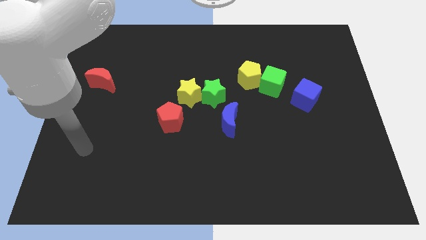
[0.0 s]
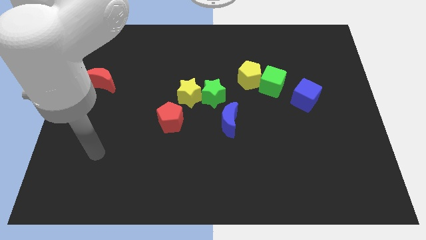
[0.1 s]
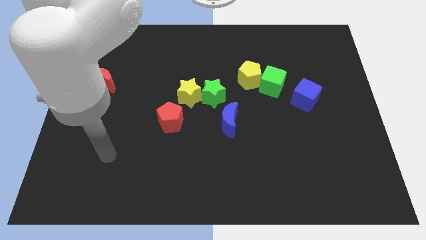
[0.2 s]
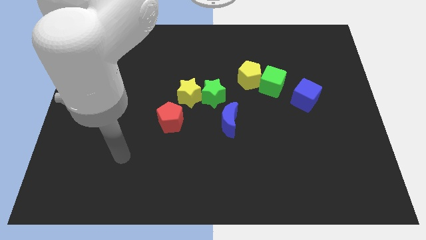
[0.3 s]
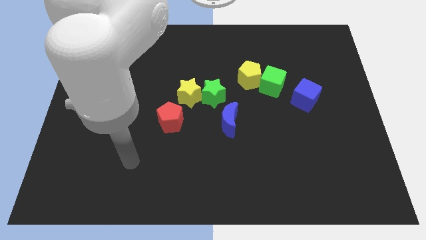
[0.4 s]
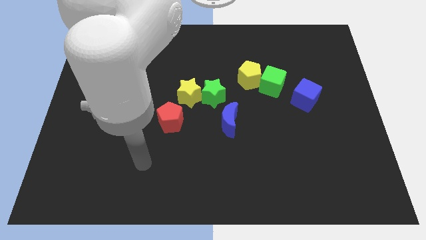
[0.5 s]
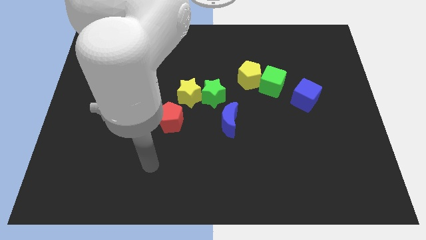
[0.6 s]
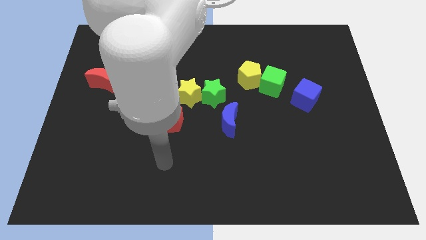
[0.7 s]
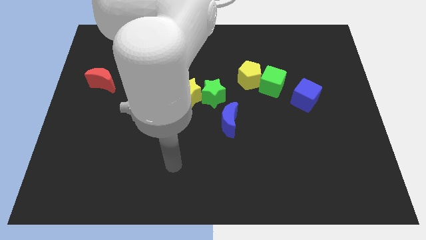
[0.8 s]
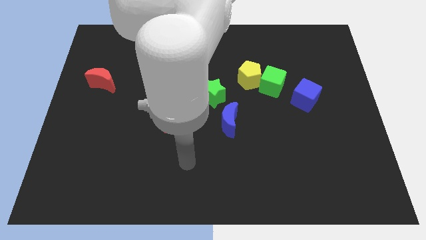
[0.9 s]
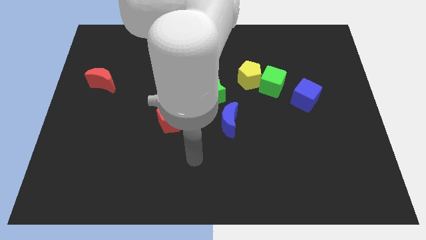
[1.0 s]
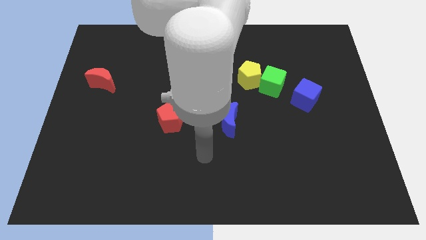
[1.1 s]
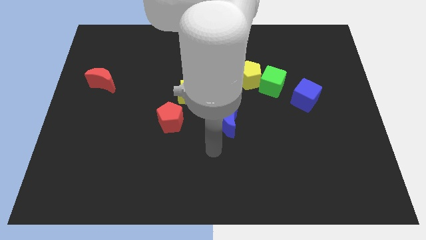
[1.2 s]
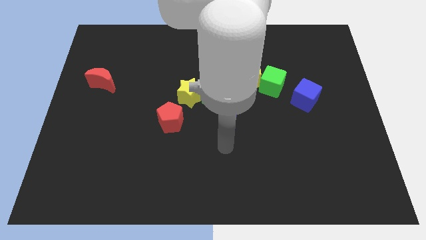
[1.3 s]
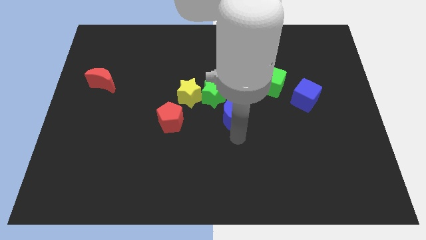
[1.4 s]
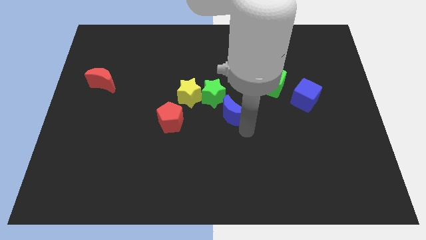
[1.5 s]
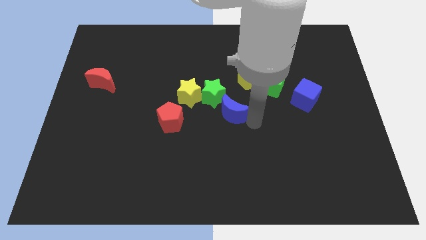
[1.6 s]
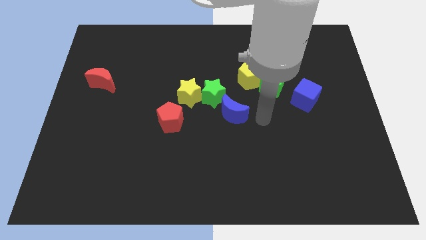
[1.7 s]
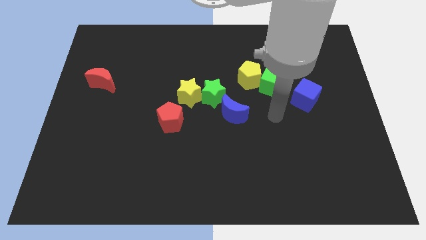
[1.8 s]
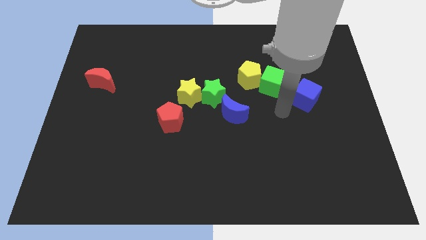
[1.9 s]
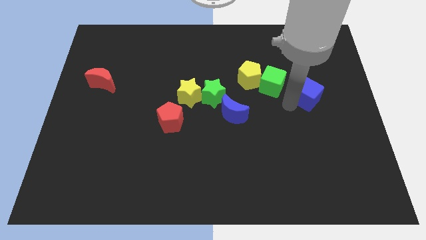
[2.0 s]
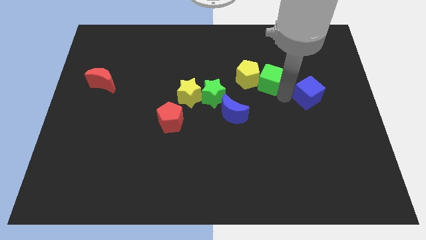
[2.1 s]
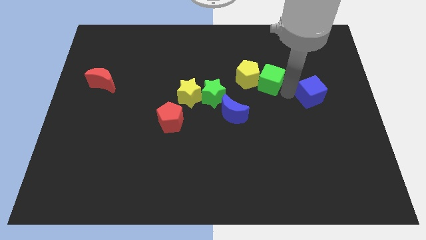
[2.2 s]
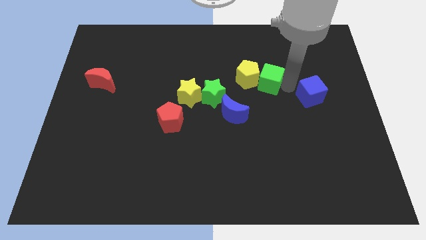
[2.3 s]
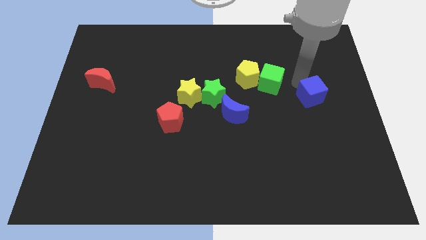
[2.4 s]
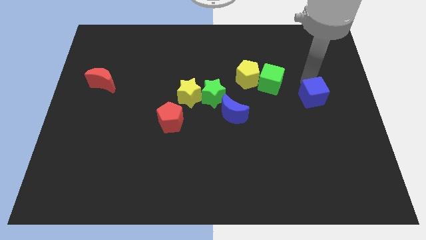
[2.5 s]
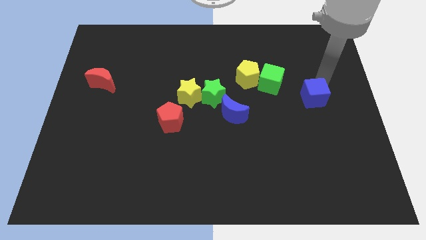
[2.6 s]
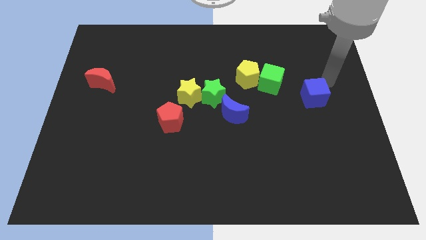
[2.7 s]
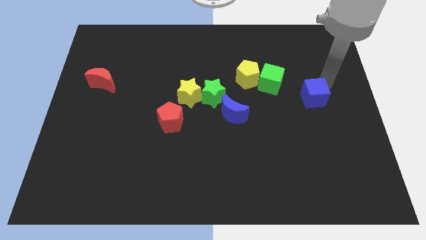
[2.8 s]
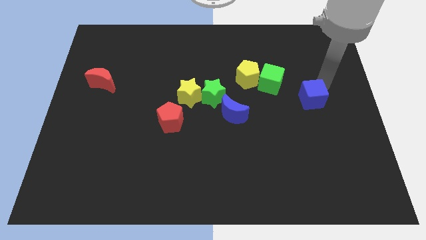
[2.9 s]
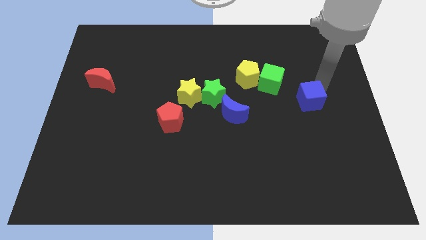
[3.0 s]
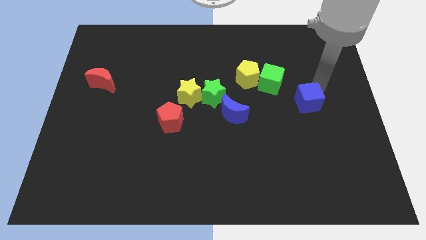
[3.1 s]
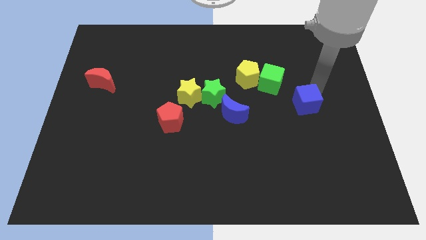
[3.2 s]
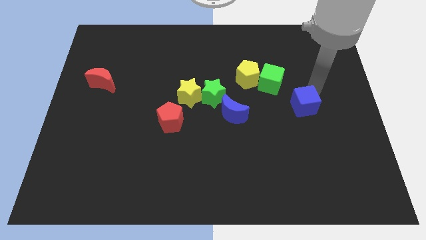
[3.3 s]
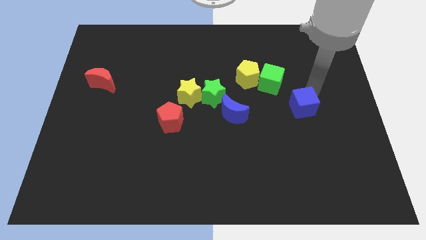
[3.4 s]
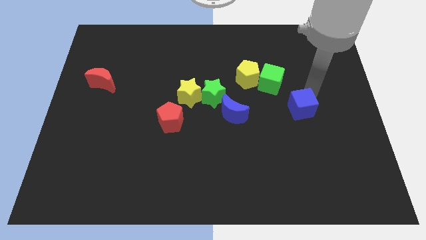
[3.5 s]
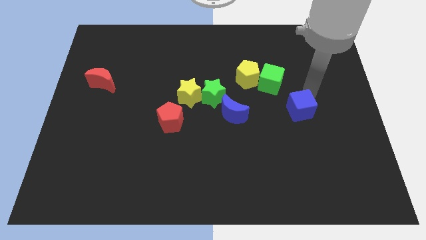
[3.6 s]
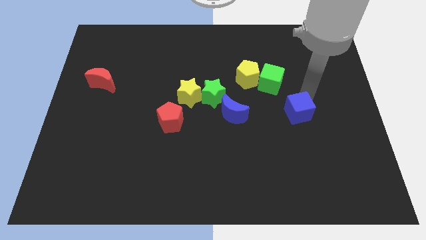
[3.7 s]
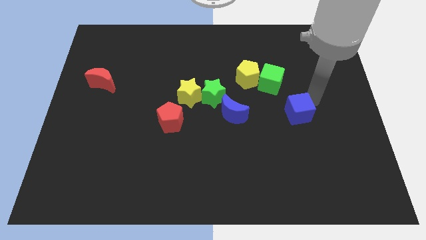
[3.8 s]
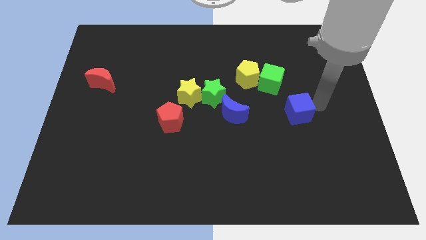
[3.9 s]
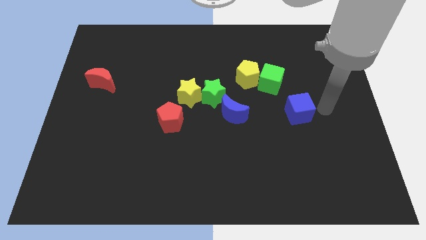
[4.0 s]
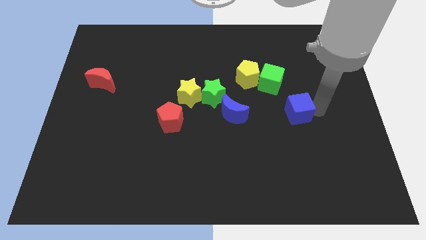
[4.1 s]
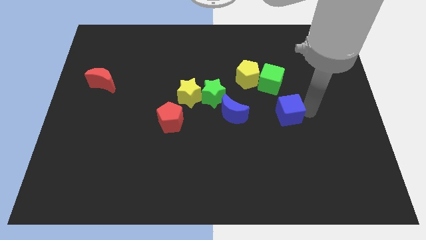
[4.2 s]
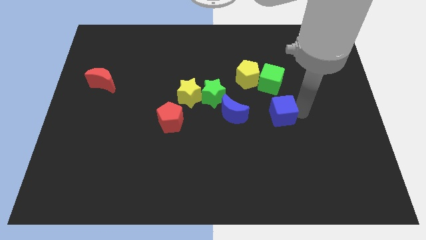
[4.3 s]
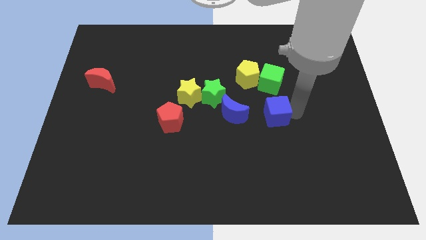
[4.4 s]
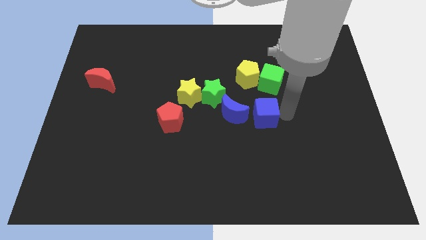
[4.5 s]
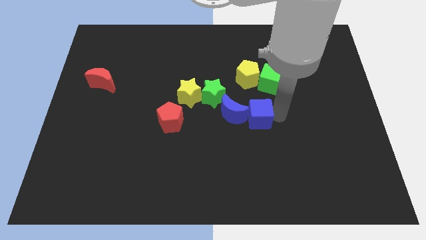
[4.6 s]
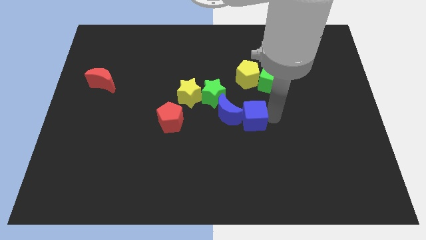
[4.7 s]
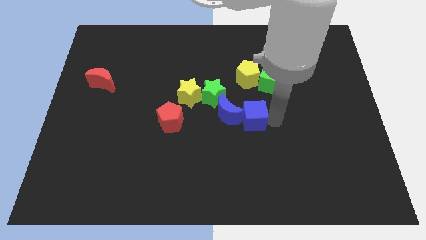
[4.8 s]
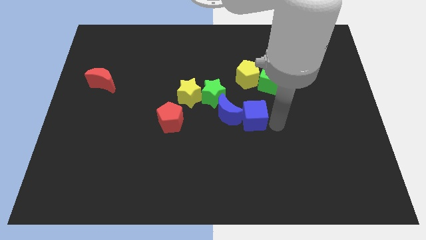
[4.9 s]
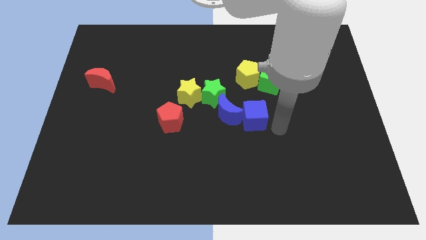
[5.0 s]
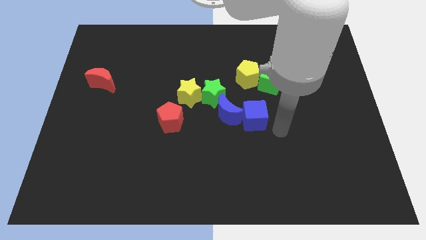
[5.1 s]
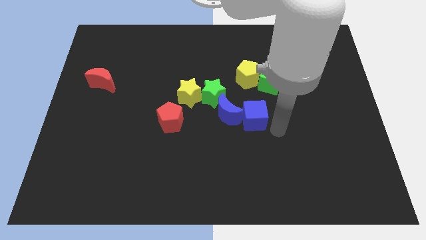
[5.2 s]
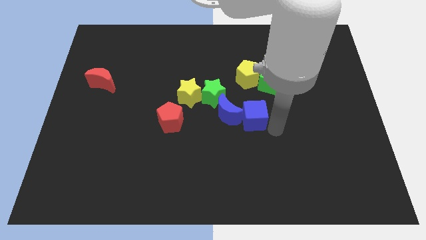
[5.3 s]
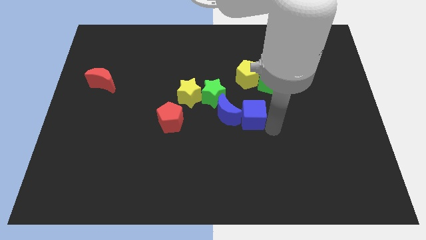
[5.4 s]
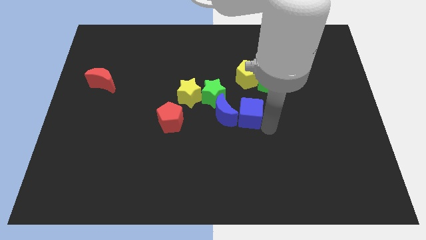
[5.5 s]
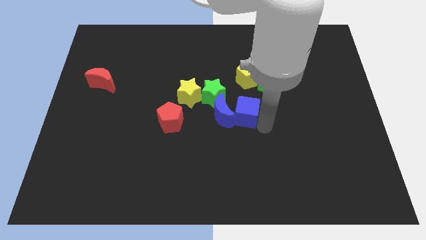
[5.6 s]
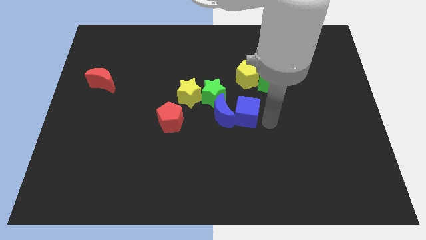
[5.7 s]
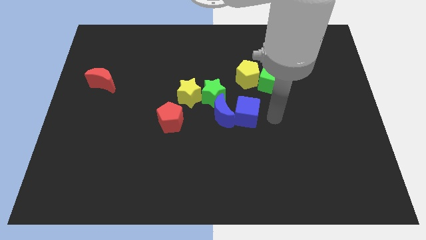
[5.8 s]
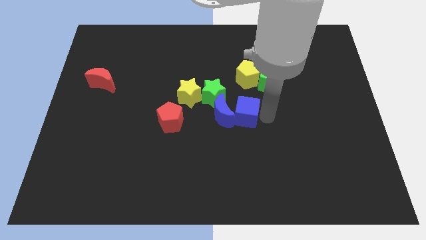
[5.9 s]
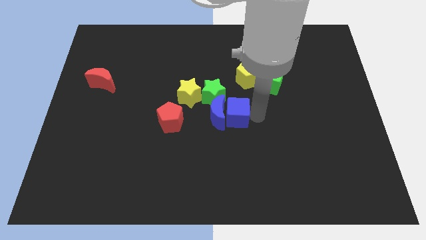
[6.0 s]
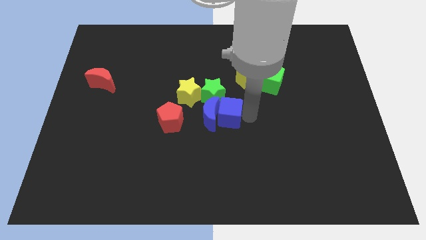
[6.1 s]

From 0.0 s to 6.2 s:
put the blue cube to the bottom right of the yellow star

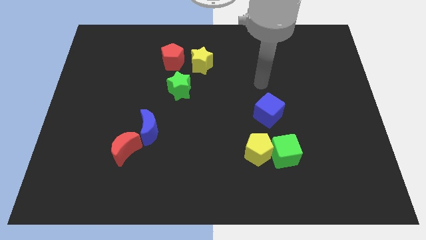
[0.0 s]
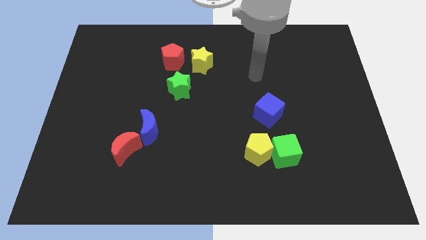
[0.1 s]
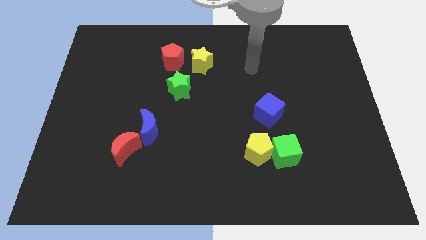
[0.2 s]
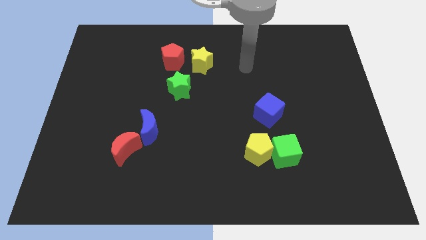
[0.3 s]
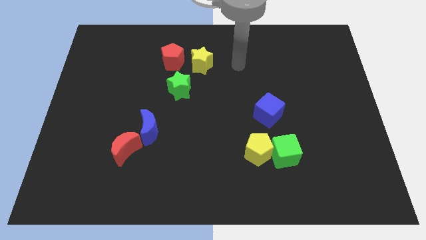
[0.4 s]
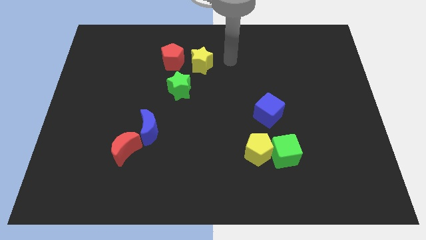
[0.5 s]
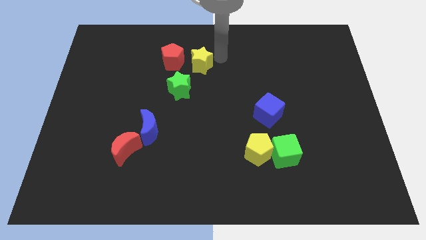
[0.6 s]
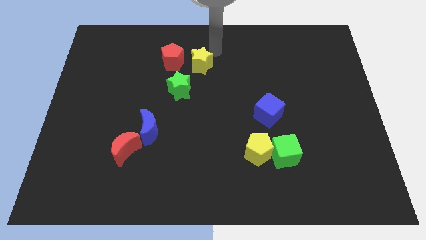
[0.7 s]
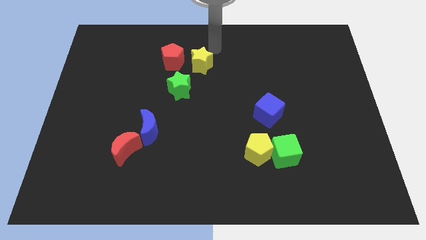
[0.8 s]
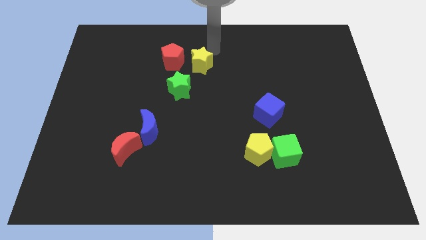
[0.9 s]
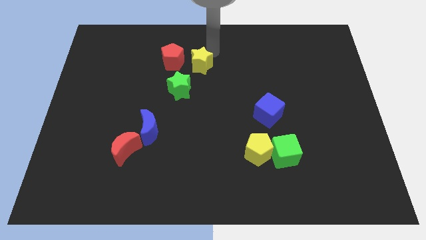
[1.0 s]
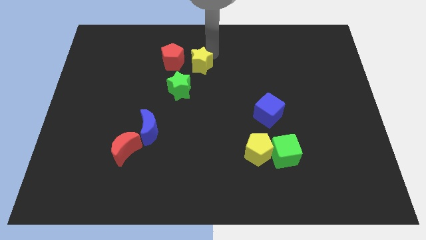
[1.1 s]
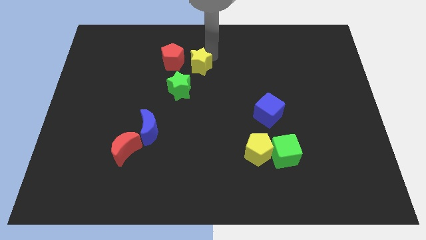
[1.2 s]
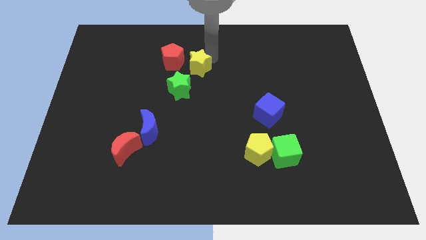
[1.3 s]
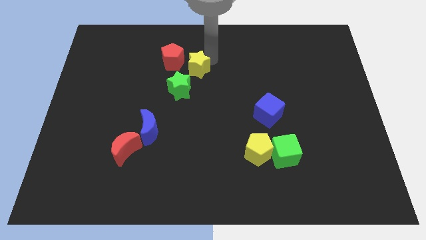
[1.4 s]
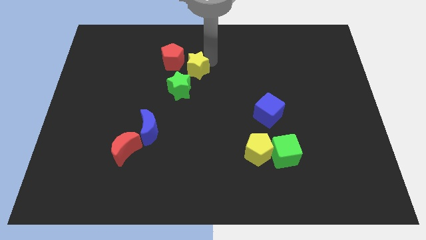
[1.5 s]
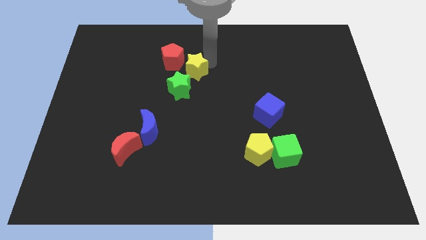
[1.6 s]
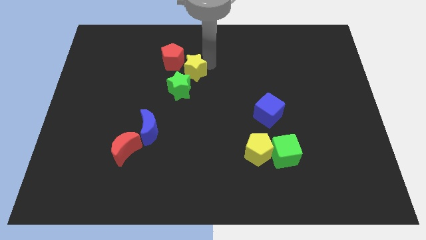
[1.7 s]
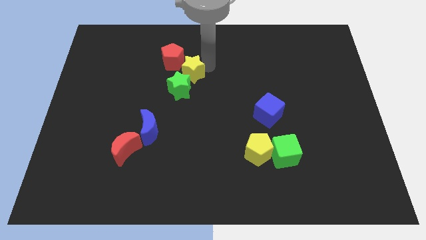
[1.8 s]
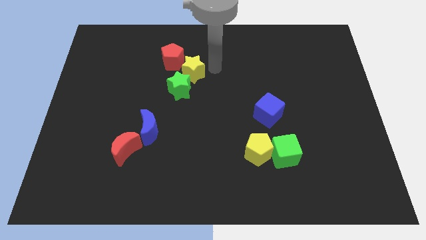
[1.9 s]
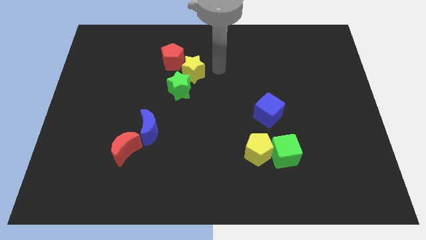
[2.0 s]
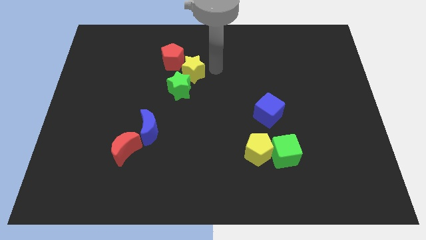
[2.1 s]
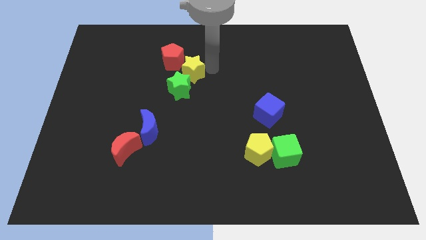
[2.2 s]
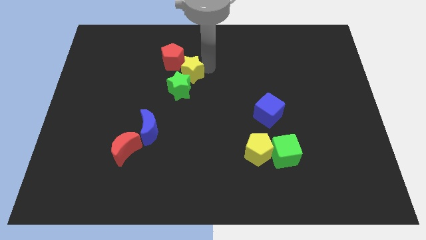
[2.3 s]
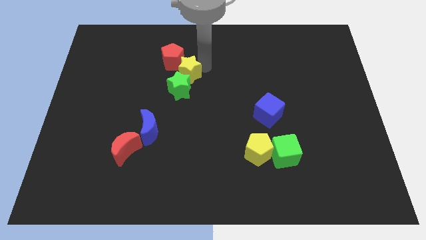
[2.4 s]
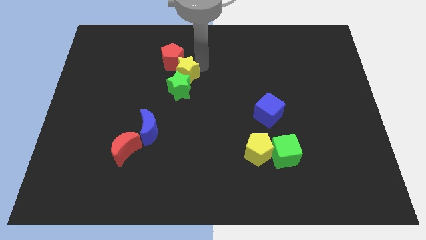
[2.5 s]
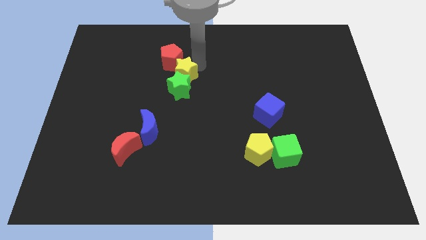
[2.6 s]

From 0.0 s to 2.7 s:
move the yellow star to the top left of the green star
